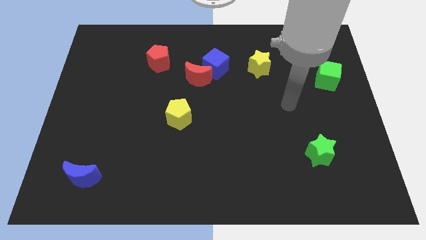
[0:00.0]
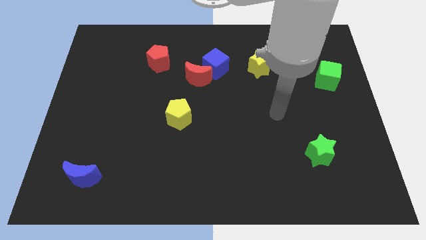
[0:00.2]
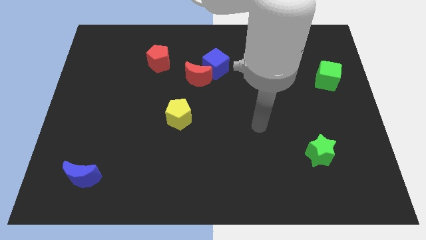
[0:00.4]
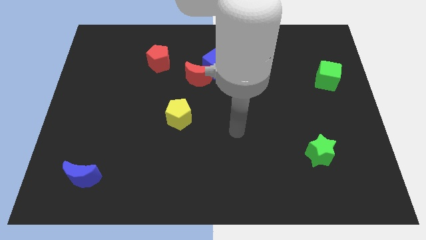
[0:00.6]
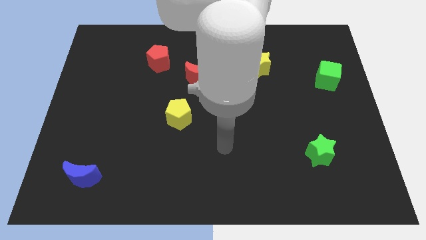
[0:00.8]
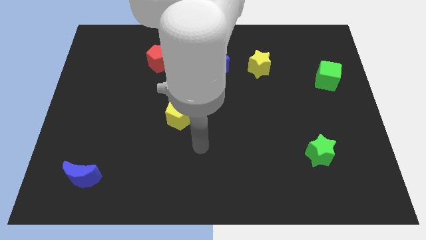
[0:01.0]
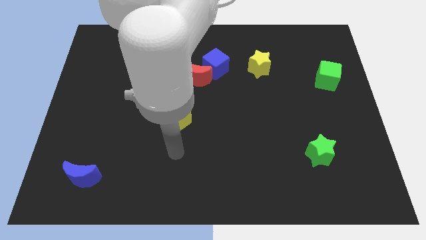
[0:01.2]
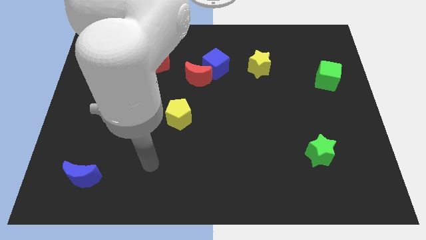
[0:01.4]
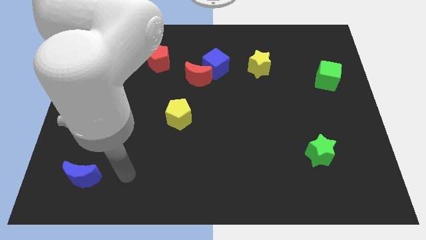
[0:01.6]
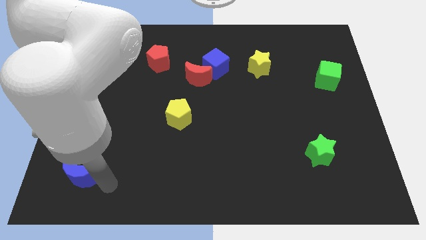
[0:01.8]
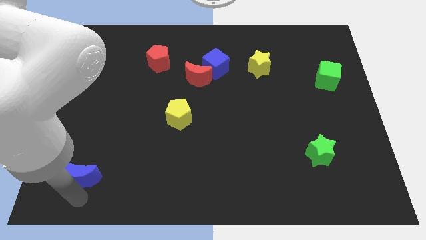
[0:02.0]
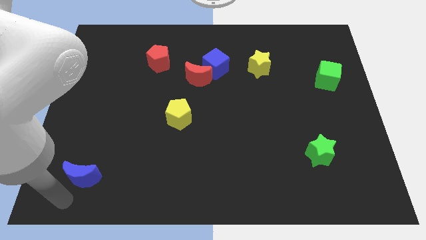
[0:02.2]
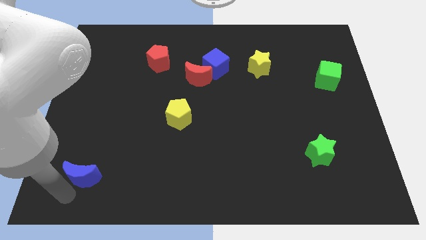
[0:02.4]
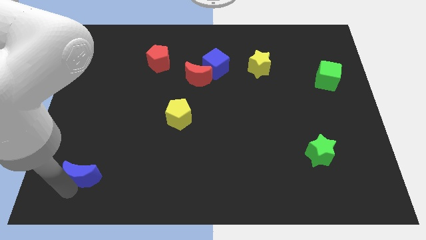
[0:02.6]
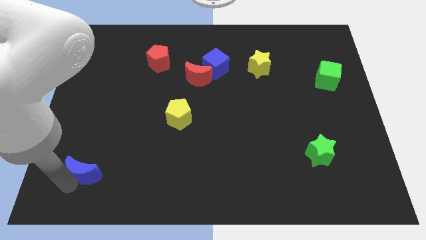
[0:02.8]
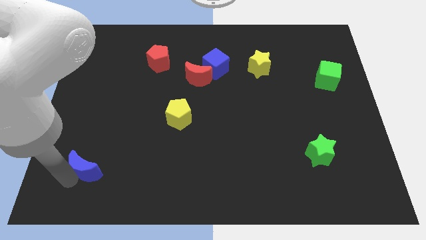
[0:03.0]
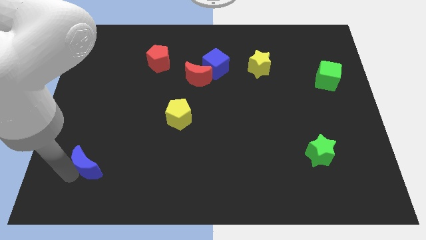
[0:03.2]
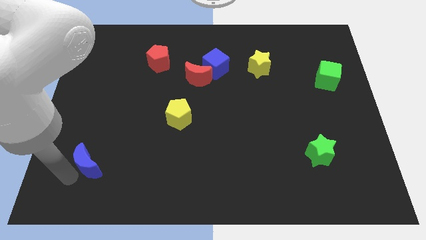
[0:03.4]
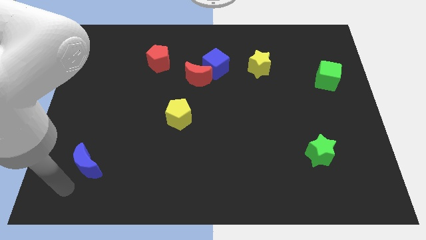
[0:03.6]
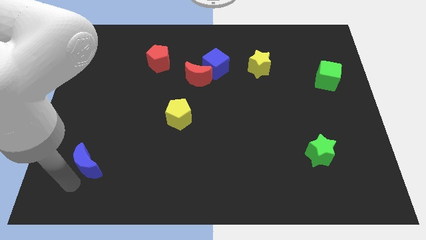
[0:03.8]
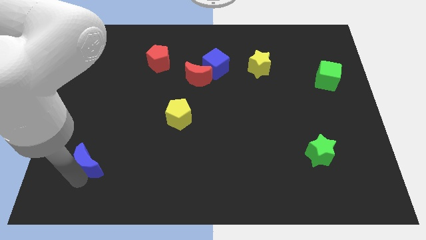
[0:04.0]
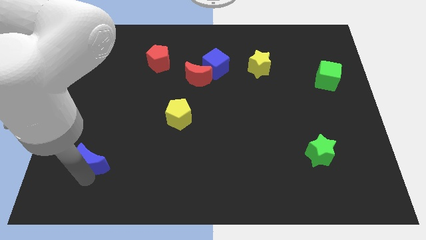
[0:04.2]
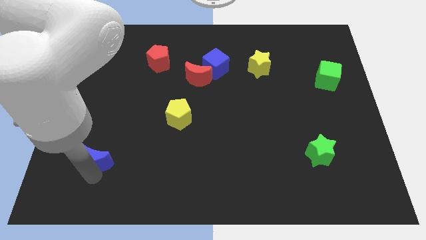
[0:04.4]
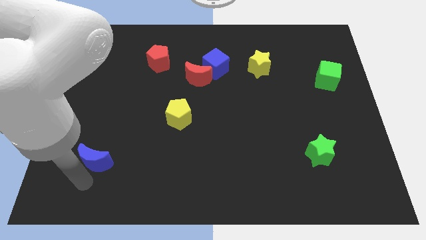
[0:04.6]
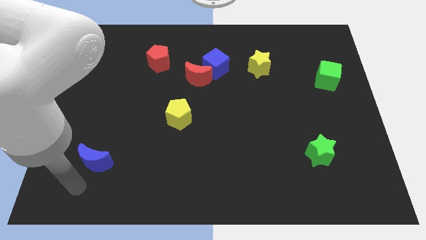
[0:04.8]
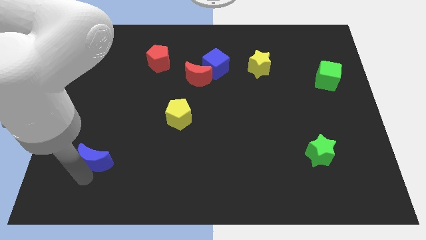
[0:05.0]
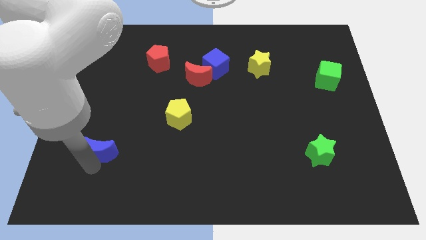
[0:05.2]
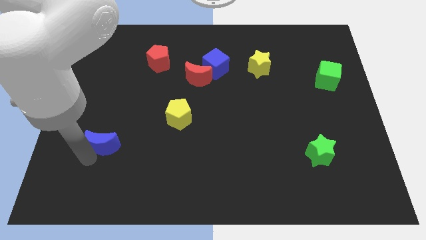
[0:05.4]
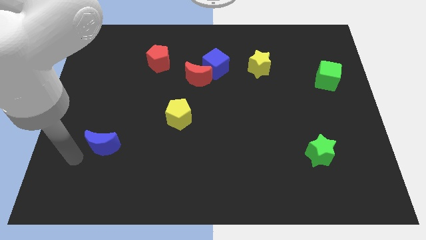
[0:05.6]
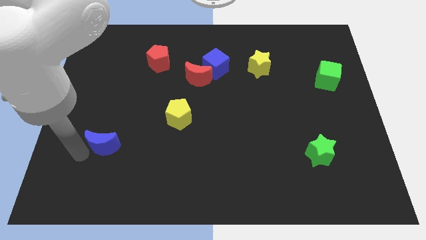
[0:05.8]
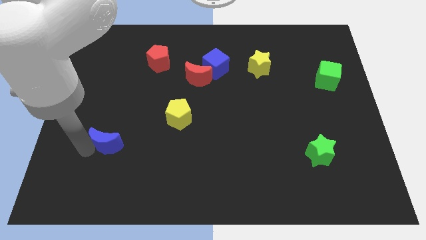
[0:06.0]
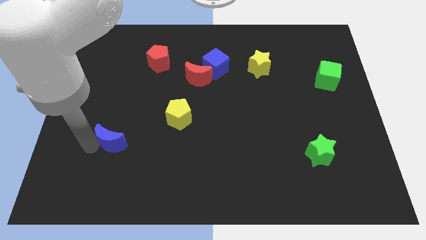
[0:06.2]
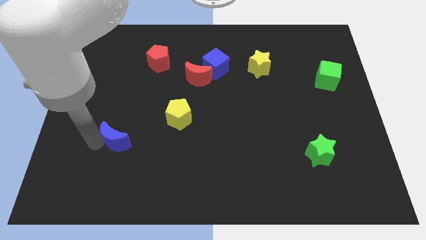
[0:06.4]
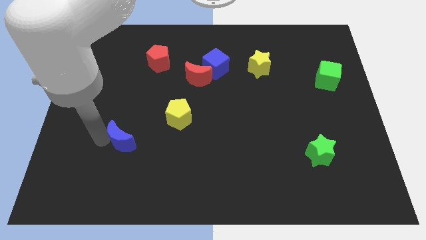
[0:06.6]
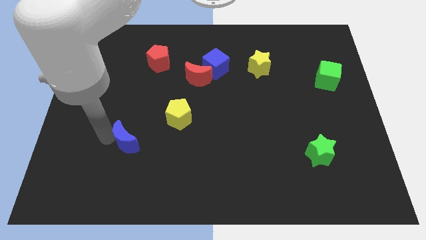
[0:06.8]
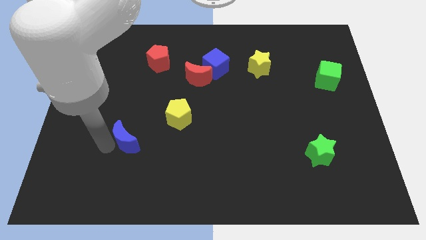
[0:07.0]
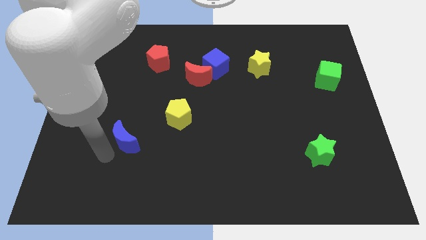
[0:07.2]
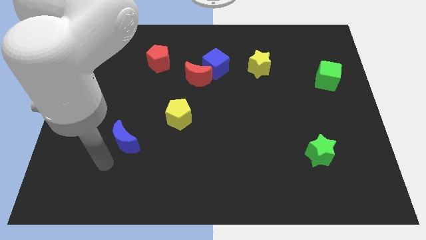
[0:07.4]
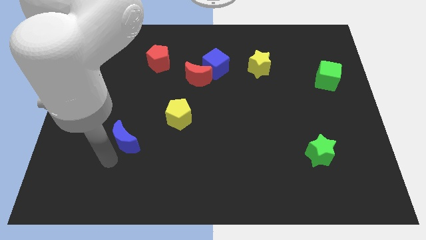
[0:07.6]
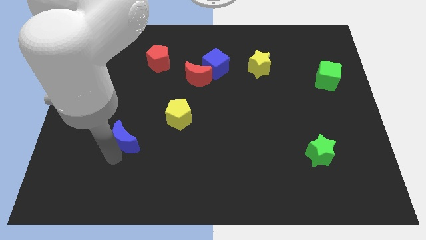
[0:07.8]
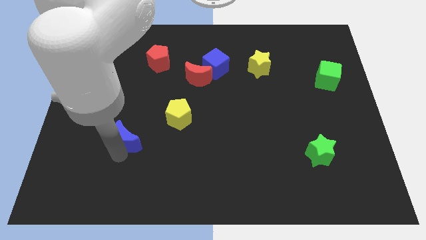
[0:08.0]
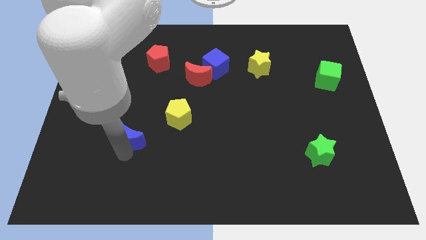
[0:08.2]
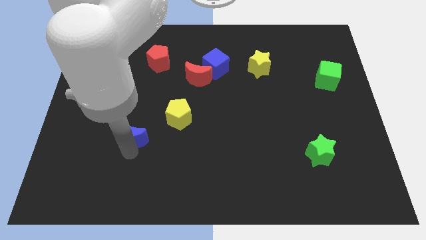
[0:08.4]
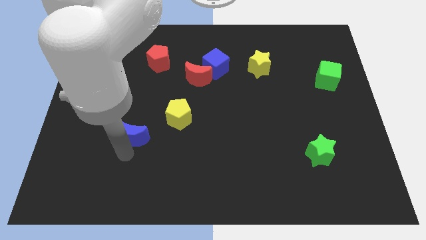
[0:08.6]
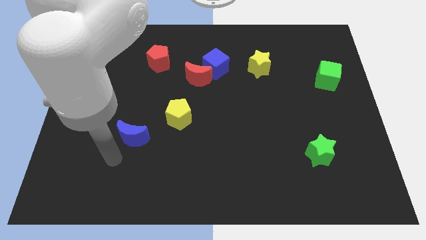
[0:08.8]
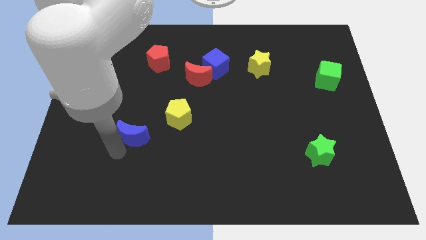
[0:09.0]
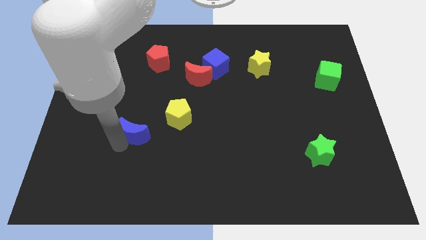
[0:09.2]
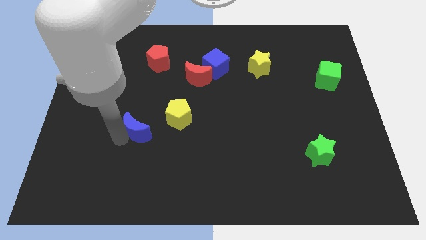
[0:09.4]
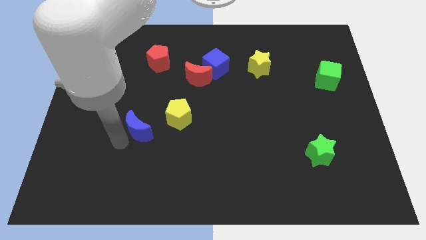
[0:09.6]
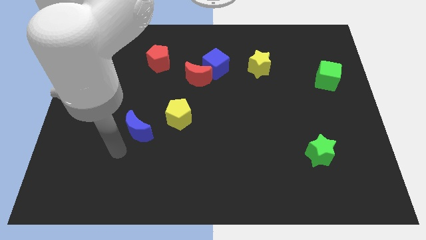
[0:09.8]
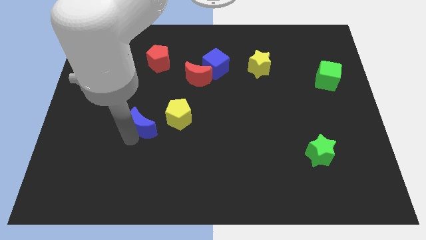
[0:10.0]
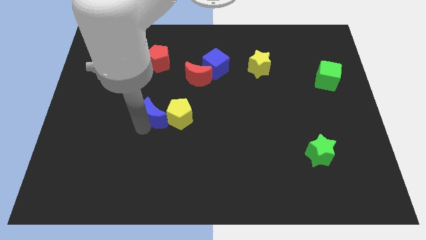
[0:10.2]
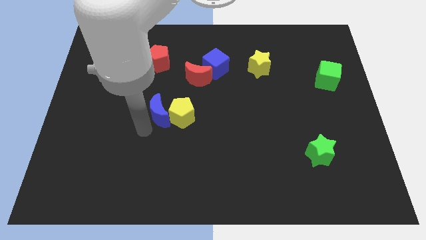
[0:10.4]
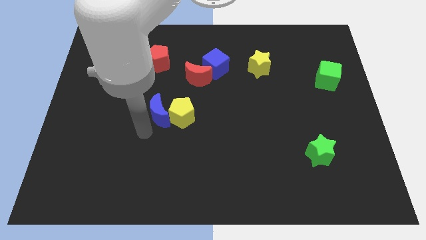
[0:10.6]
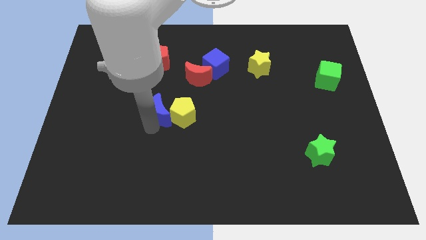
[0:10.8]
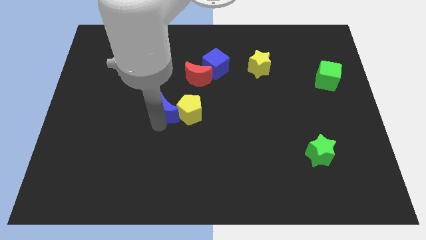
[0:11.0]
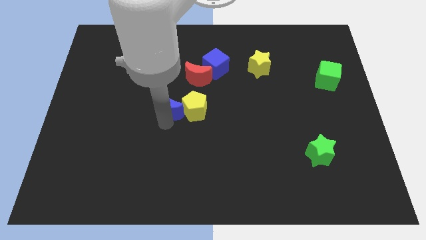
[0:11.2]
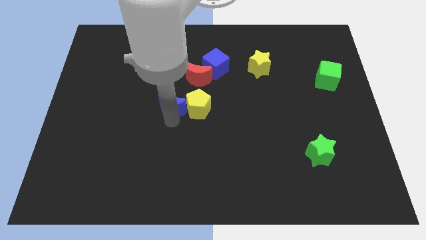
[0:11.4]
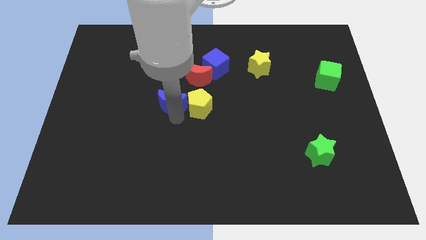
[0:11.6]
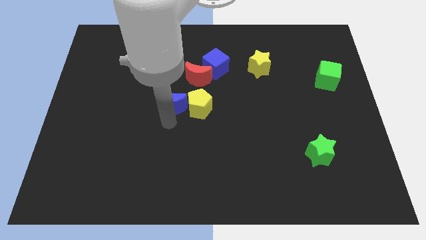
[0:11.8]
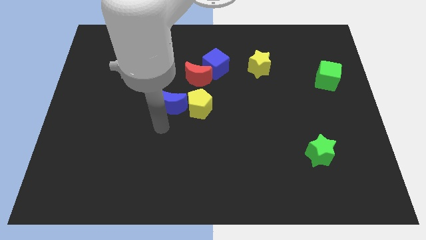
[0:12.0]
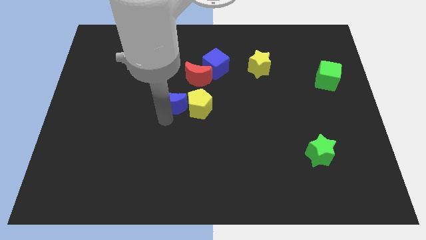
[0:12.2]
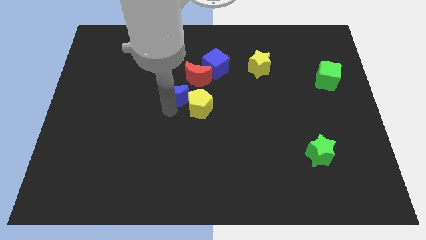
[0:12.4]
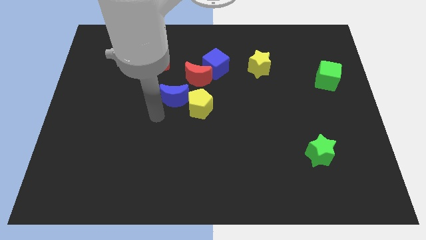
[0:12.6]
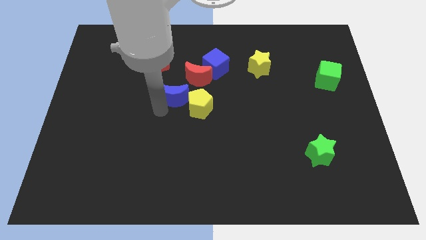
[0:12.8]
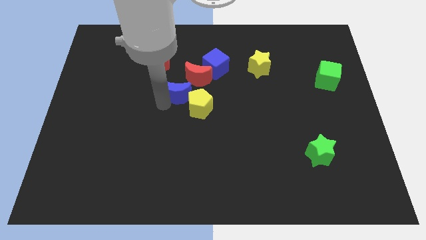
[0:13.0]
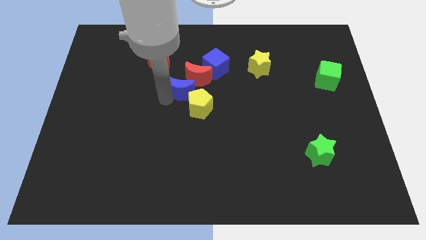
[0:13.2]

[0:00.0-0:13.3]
slide the blue moon close to the red moon

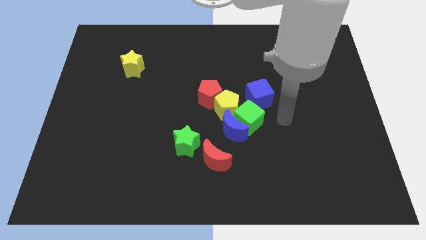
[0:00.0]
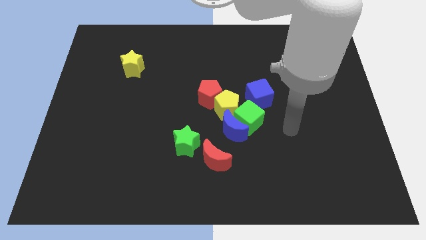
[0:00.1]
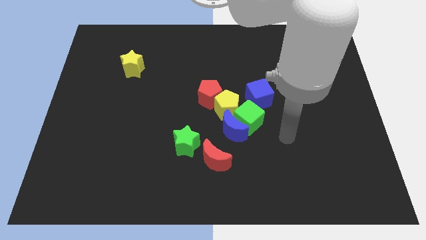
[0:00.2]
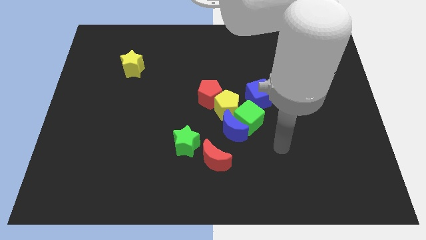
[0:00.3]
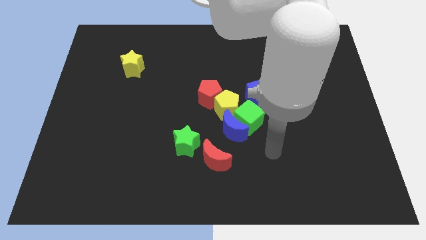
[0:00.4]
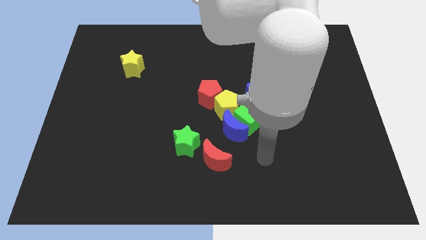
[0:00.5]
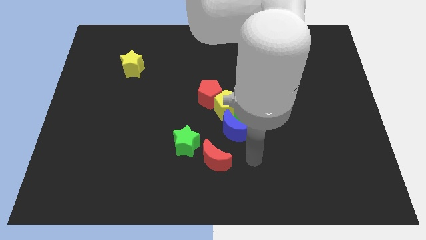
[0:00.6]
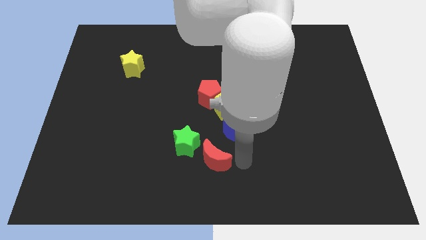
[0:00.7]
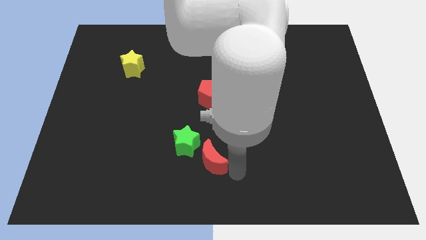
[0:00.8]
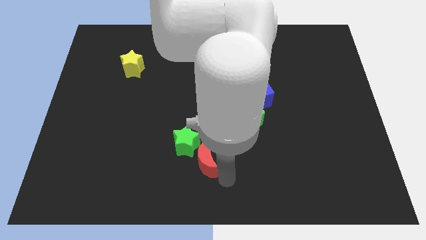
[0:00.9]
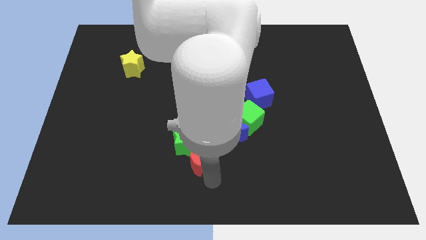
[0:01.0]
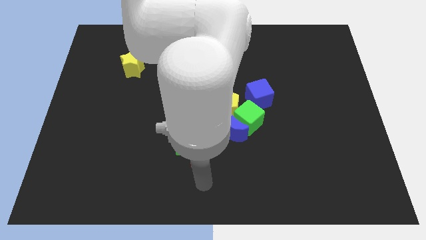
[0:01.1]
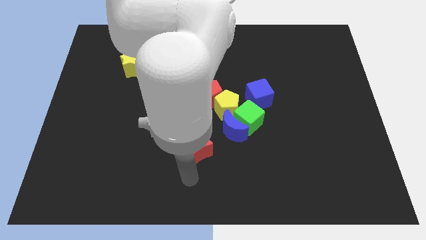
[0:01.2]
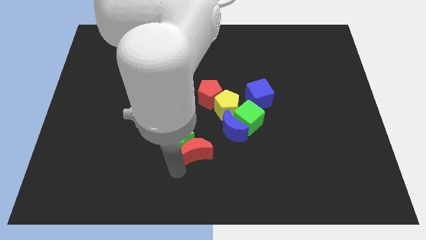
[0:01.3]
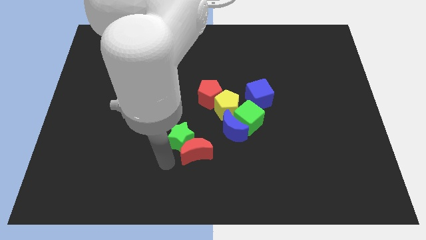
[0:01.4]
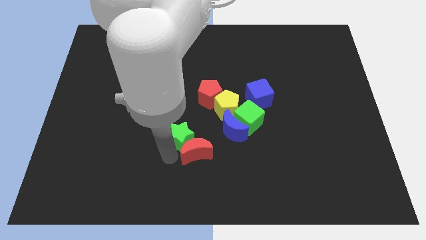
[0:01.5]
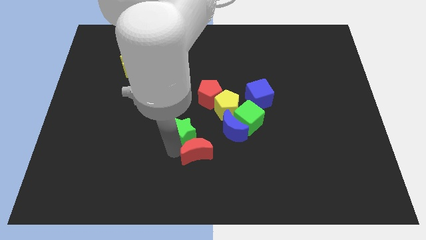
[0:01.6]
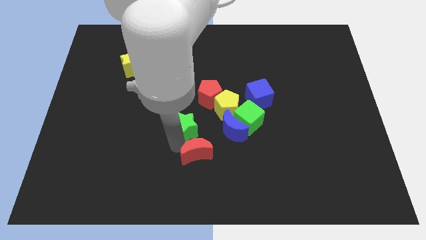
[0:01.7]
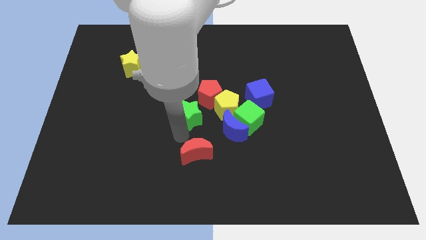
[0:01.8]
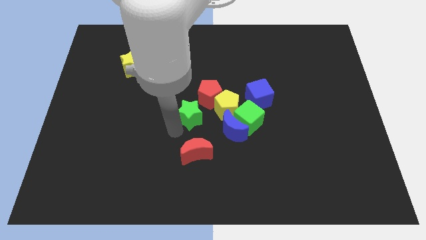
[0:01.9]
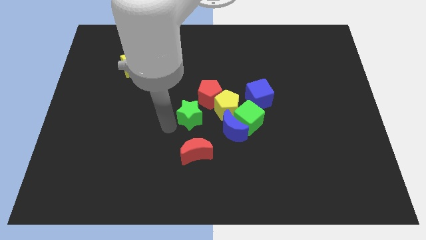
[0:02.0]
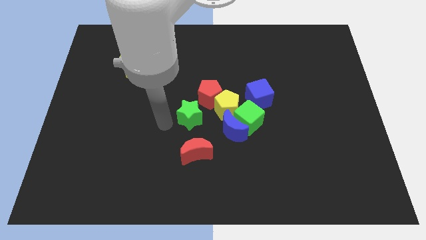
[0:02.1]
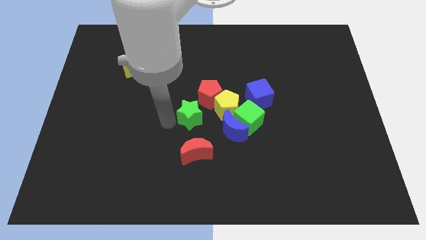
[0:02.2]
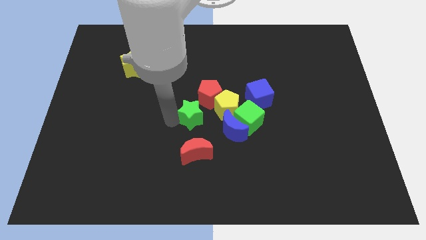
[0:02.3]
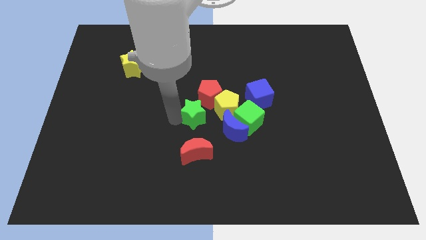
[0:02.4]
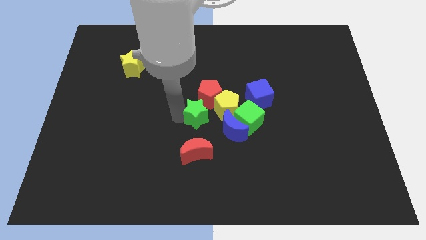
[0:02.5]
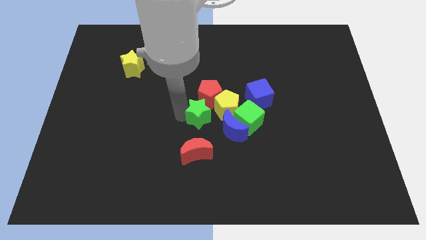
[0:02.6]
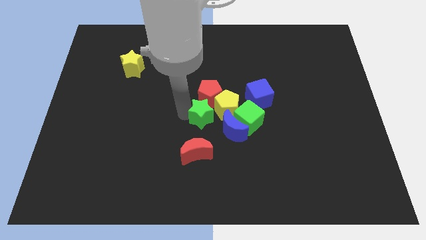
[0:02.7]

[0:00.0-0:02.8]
slide the green star to the yellow pentagon
